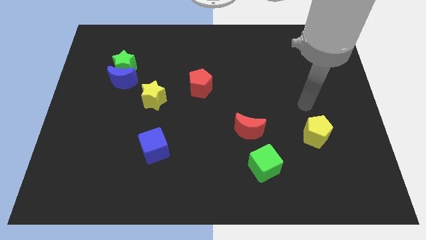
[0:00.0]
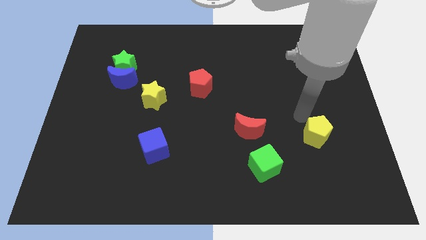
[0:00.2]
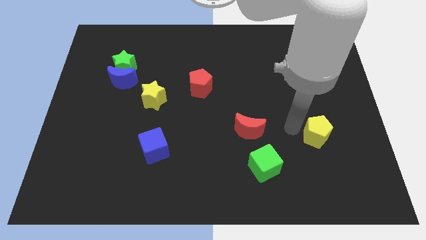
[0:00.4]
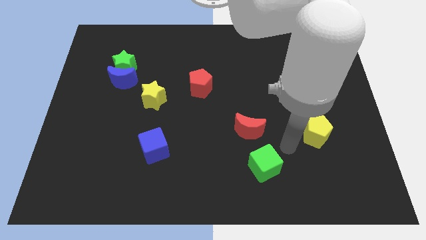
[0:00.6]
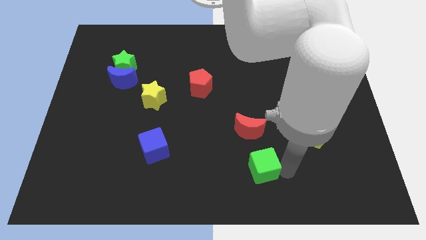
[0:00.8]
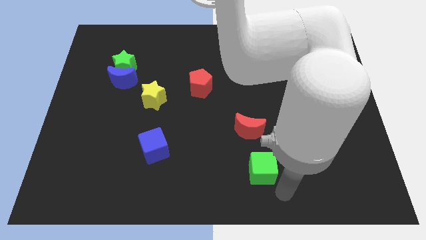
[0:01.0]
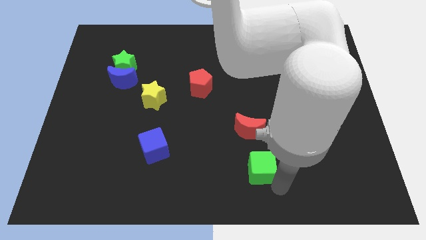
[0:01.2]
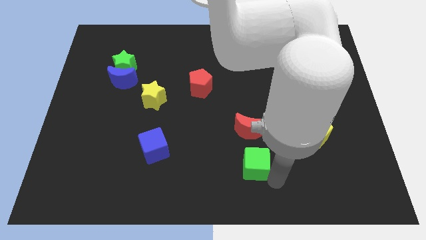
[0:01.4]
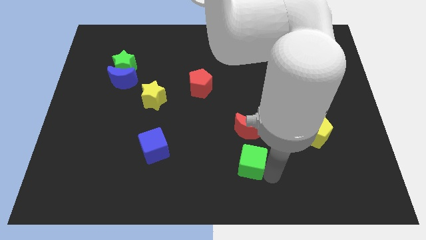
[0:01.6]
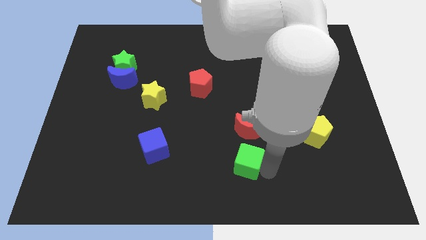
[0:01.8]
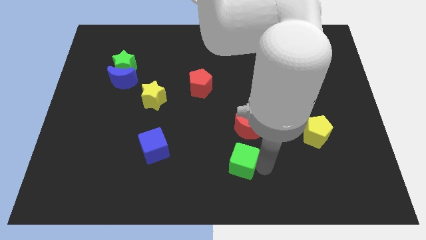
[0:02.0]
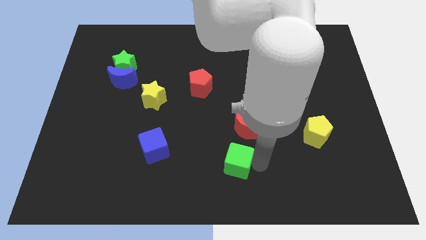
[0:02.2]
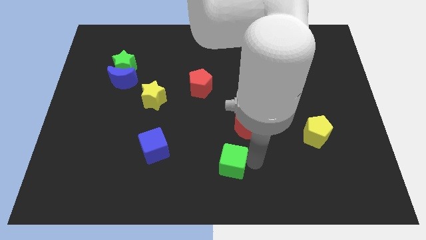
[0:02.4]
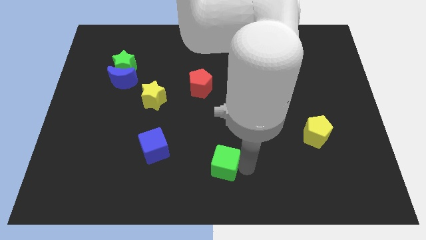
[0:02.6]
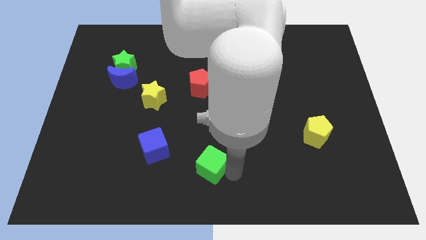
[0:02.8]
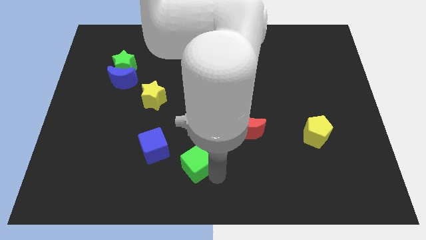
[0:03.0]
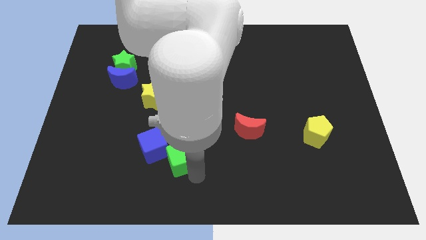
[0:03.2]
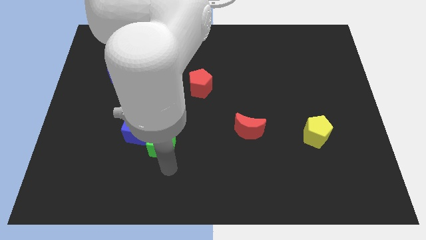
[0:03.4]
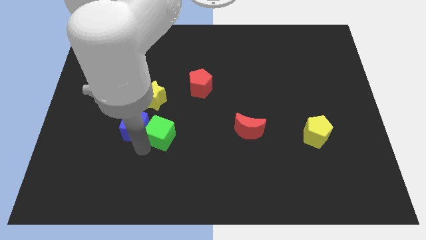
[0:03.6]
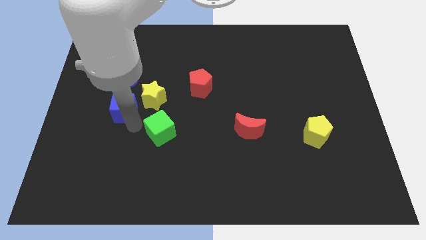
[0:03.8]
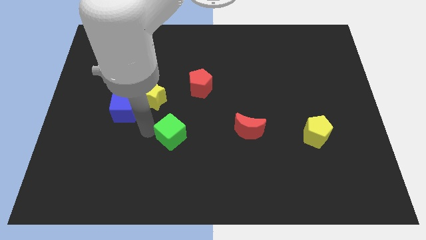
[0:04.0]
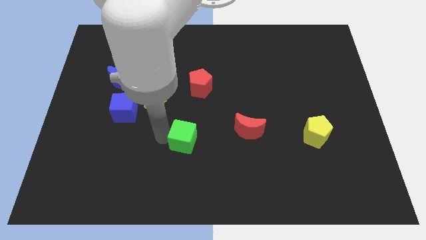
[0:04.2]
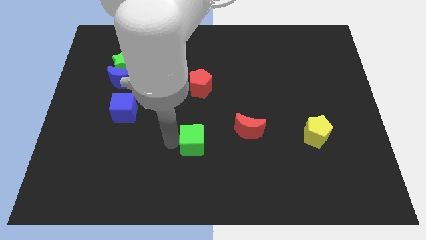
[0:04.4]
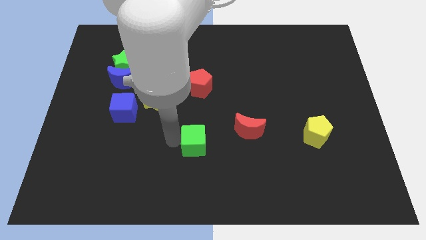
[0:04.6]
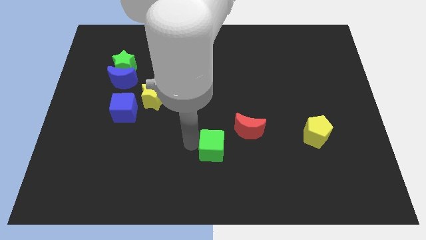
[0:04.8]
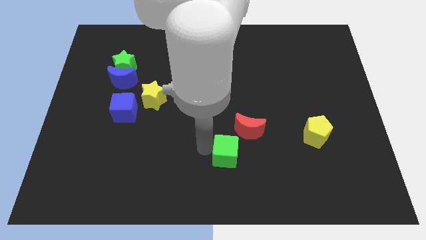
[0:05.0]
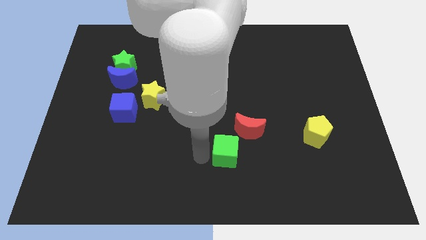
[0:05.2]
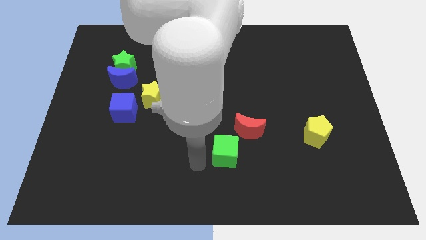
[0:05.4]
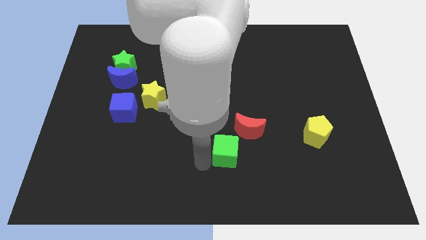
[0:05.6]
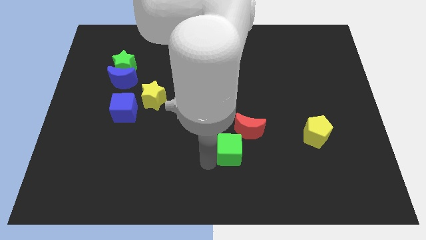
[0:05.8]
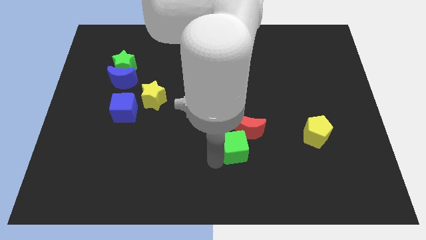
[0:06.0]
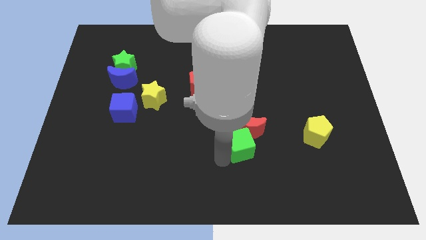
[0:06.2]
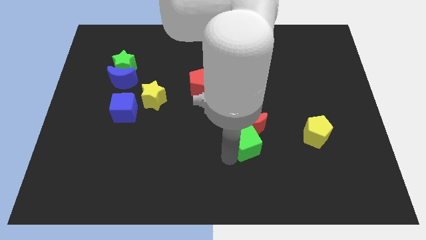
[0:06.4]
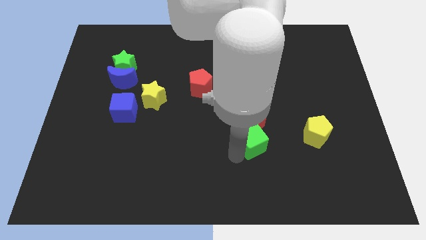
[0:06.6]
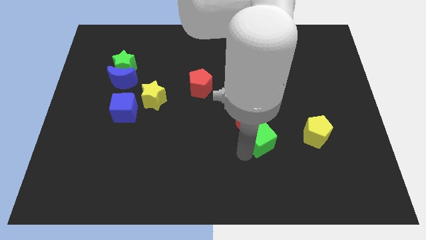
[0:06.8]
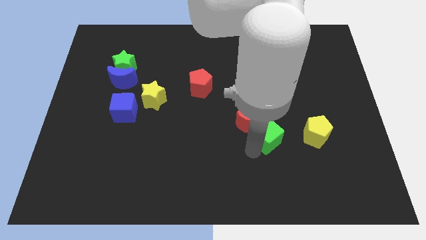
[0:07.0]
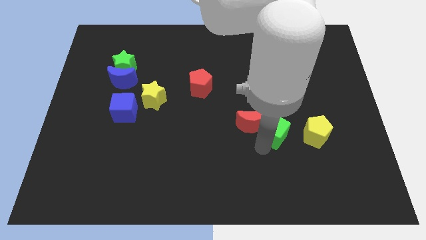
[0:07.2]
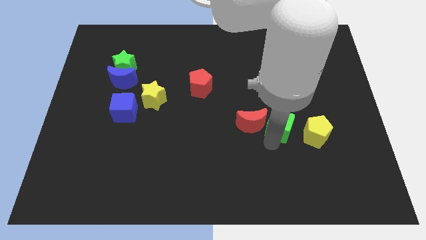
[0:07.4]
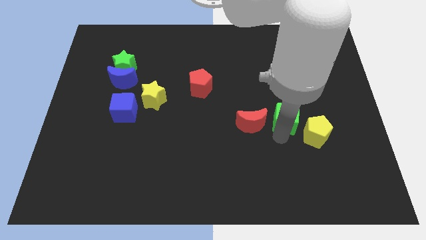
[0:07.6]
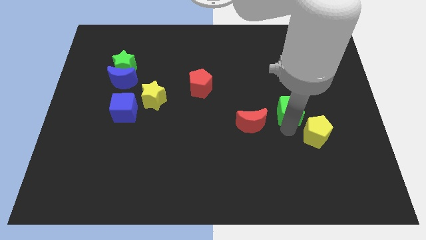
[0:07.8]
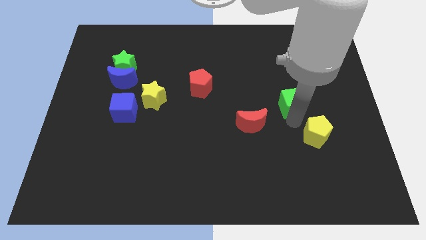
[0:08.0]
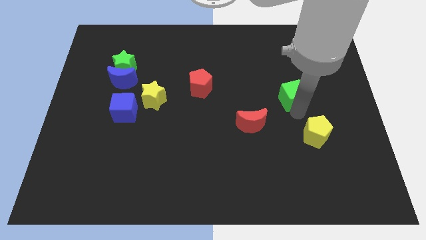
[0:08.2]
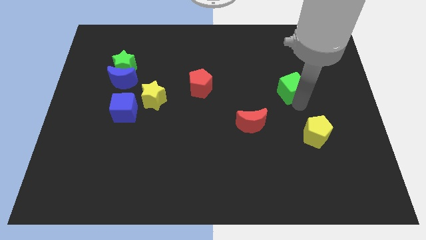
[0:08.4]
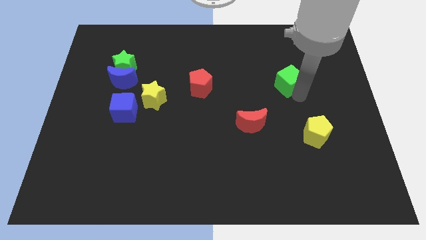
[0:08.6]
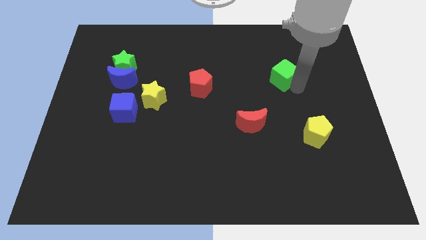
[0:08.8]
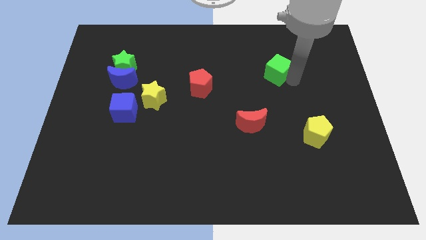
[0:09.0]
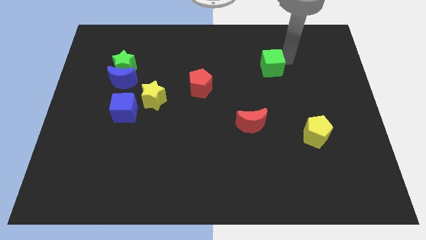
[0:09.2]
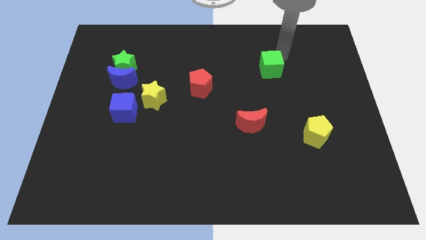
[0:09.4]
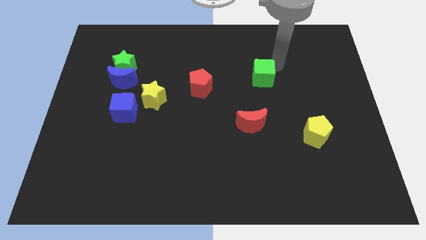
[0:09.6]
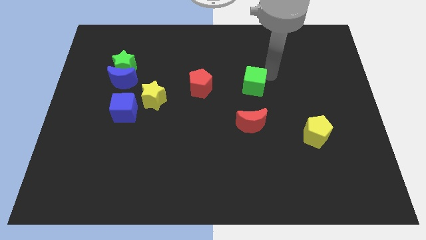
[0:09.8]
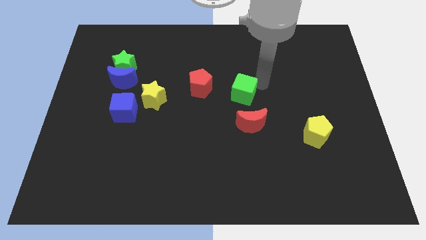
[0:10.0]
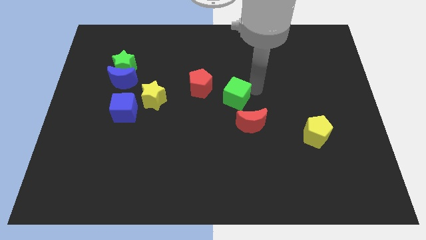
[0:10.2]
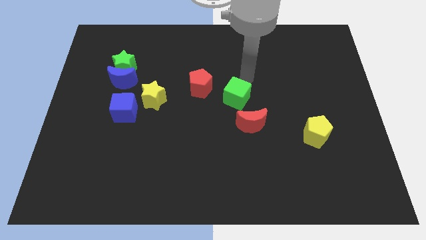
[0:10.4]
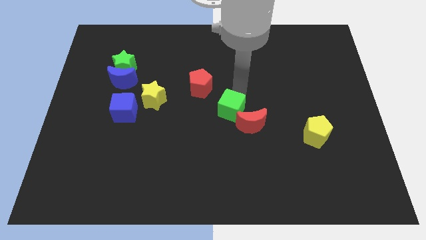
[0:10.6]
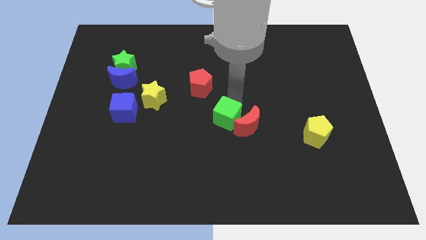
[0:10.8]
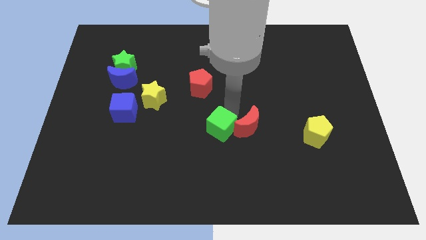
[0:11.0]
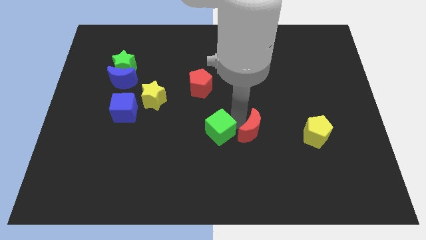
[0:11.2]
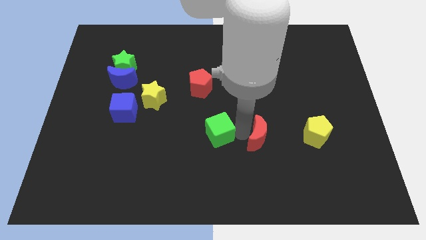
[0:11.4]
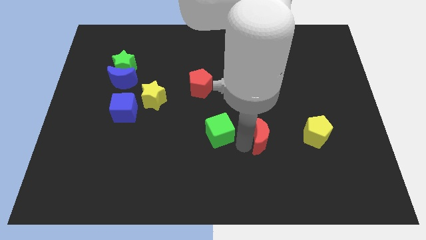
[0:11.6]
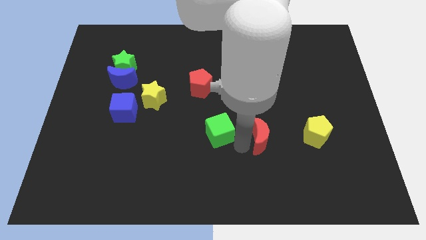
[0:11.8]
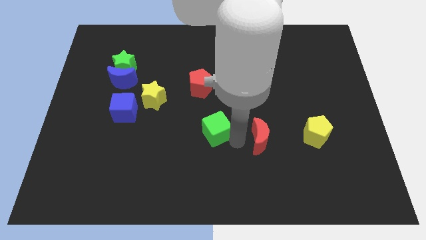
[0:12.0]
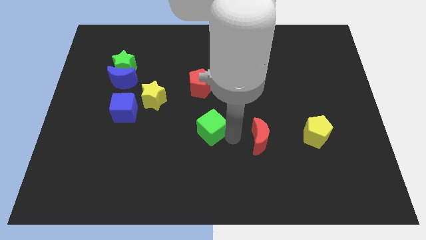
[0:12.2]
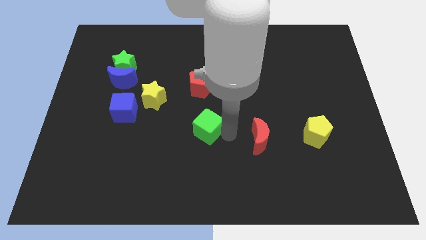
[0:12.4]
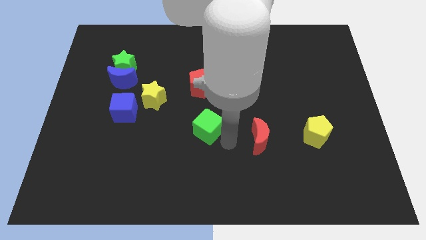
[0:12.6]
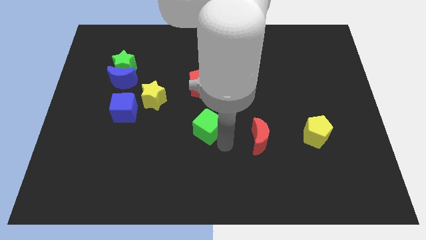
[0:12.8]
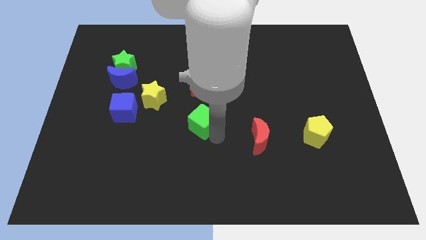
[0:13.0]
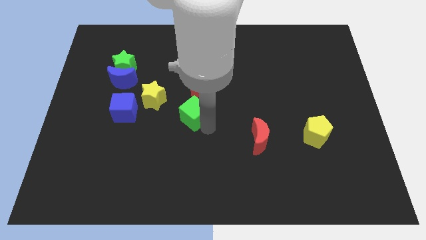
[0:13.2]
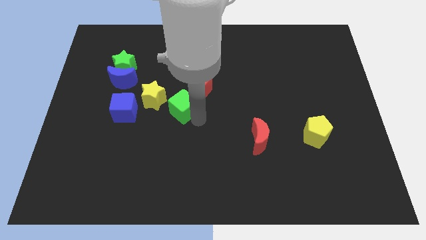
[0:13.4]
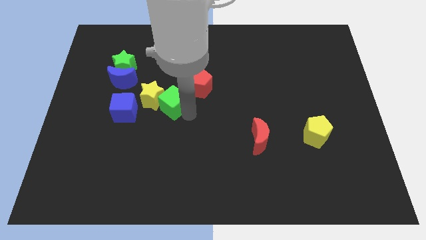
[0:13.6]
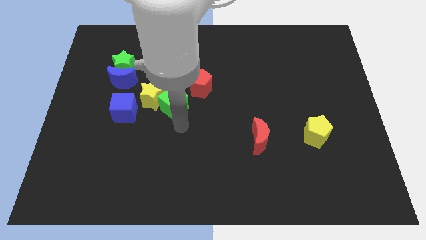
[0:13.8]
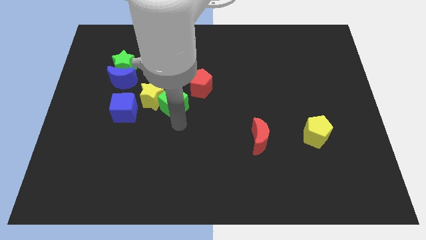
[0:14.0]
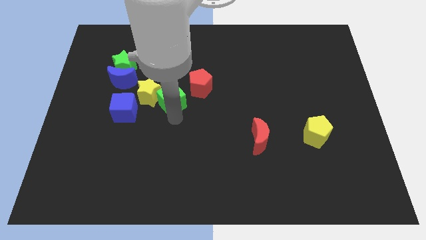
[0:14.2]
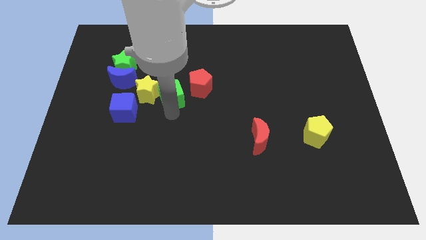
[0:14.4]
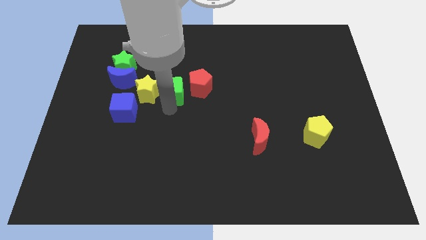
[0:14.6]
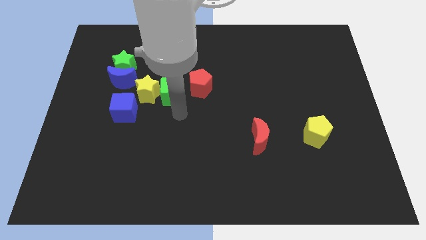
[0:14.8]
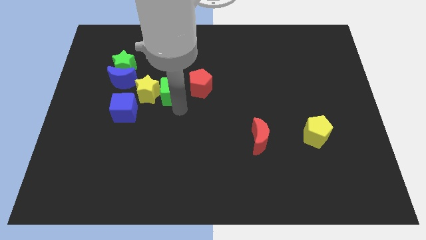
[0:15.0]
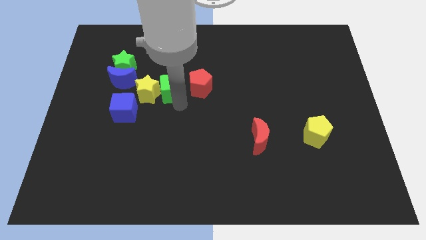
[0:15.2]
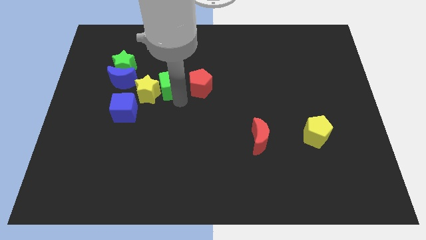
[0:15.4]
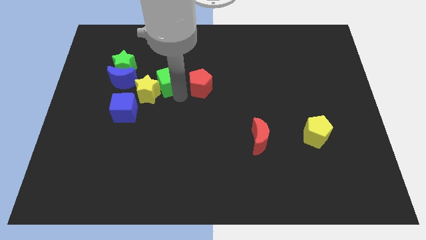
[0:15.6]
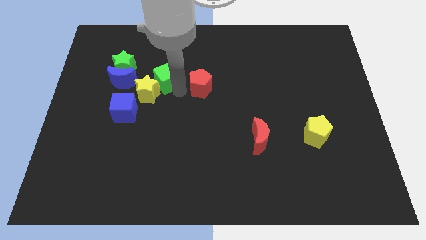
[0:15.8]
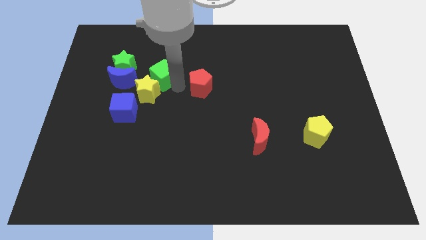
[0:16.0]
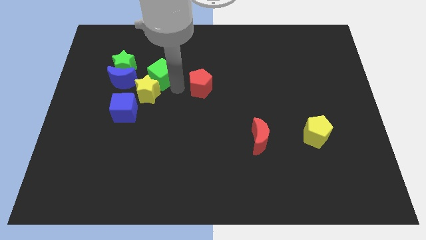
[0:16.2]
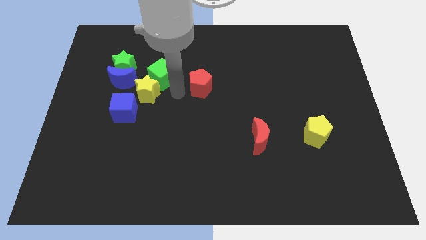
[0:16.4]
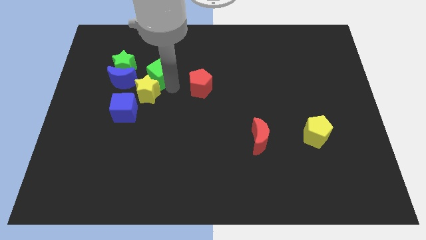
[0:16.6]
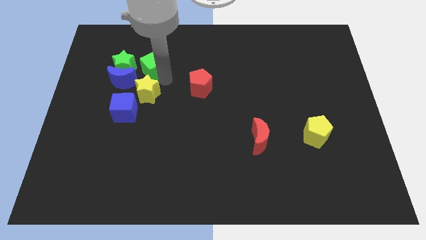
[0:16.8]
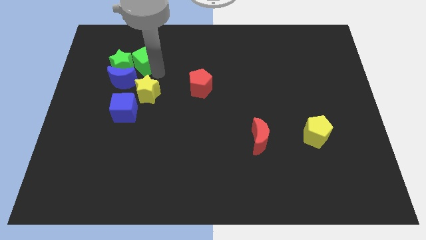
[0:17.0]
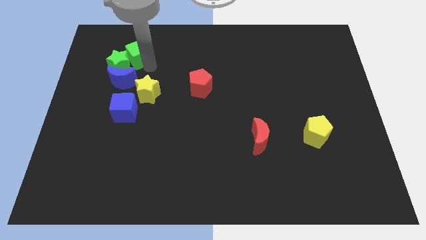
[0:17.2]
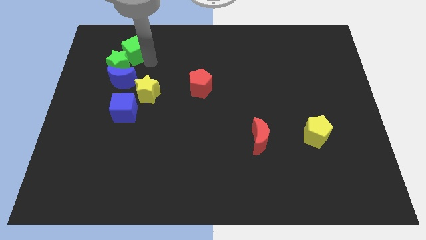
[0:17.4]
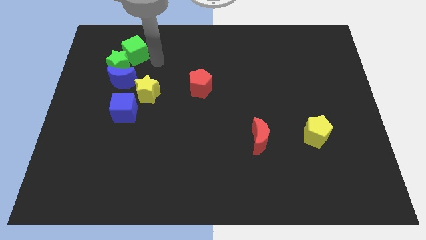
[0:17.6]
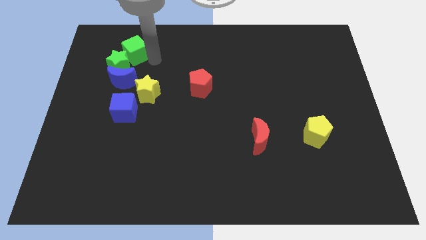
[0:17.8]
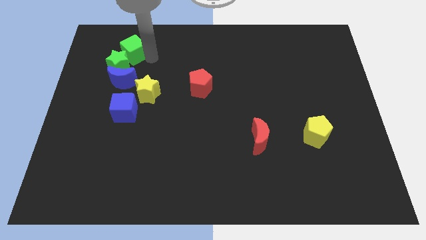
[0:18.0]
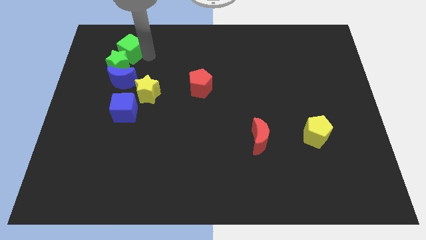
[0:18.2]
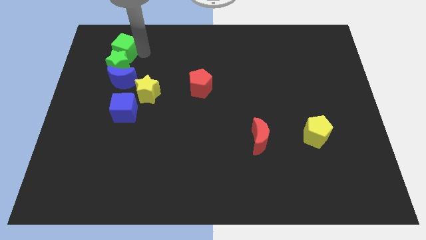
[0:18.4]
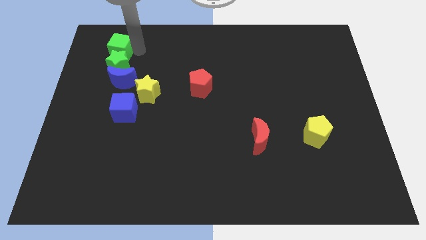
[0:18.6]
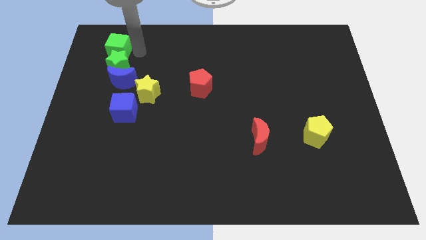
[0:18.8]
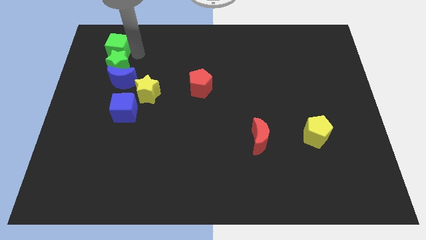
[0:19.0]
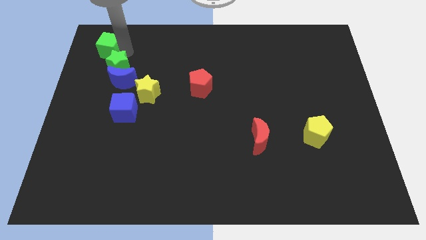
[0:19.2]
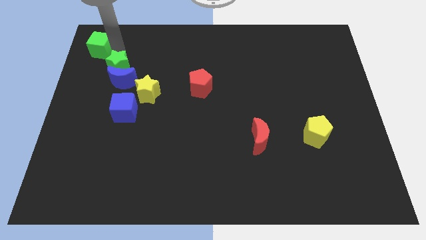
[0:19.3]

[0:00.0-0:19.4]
move the green cube to the top left
